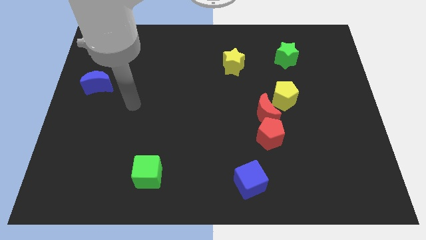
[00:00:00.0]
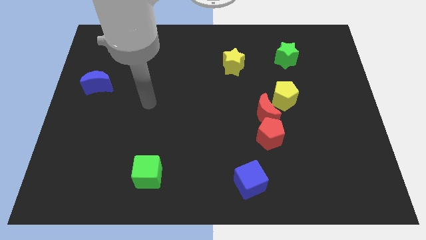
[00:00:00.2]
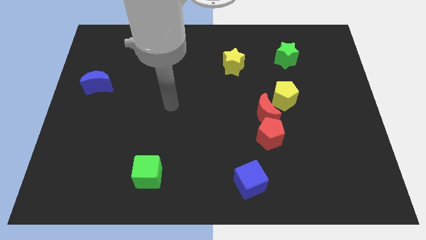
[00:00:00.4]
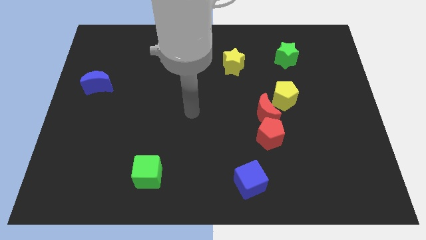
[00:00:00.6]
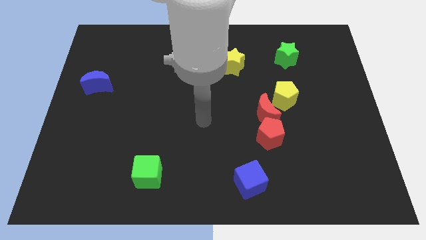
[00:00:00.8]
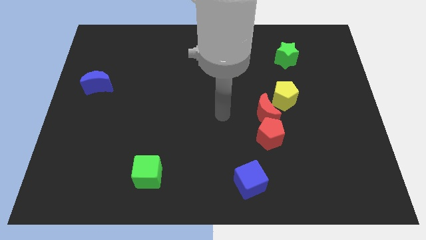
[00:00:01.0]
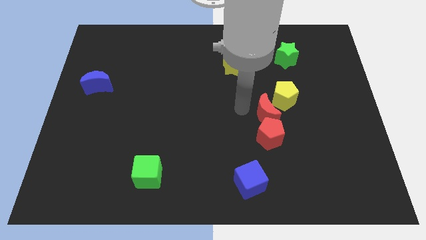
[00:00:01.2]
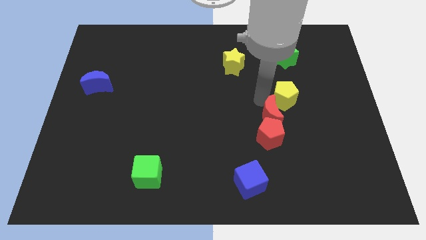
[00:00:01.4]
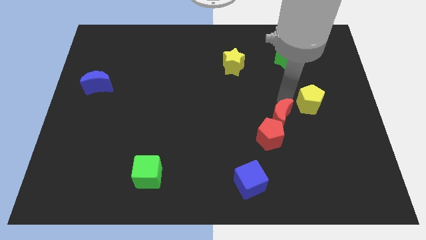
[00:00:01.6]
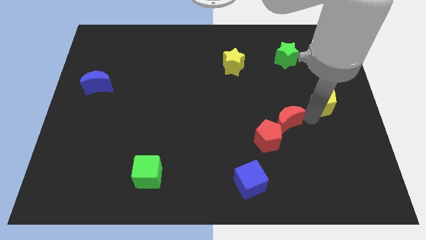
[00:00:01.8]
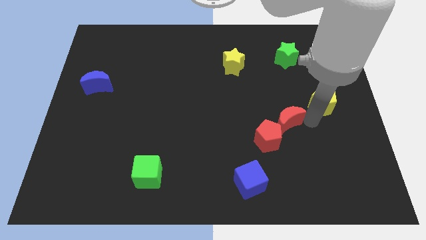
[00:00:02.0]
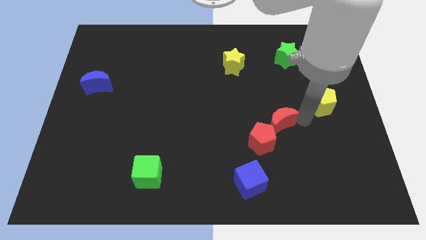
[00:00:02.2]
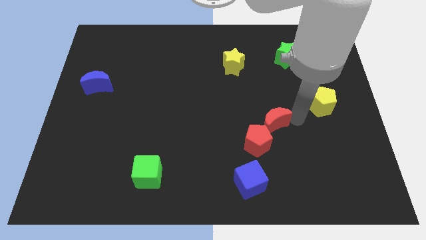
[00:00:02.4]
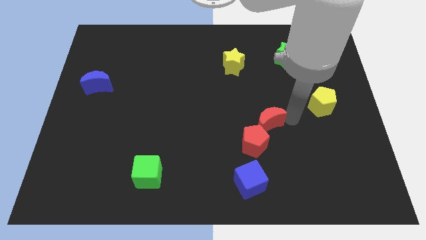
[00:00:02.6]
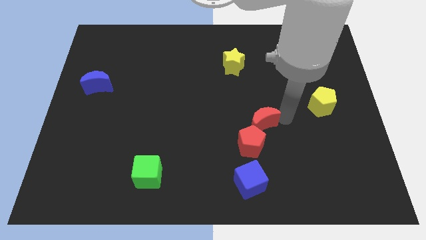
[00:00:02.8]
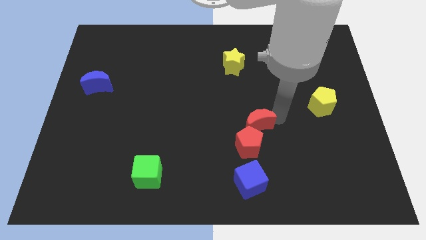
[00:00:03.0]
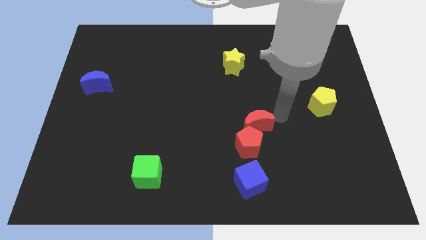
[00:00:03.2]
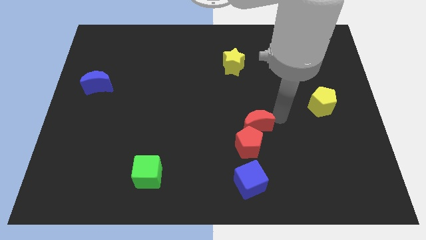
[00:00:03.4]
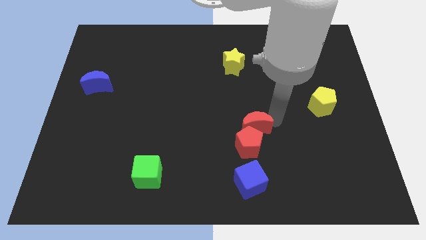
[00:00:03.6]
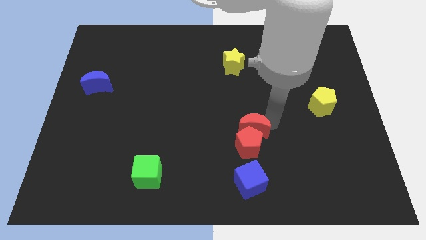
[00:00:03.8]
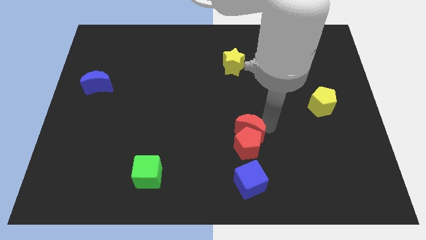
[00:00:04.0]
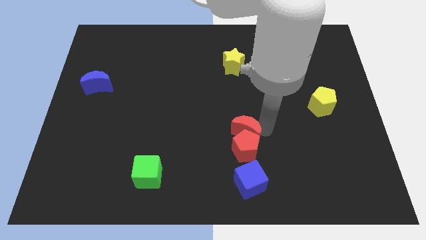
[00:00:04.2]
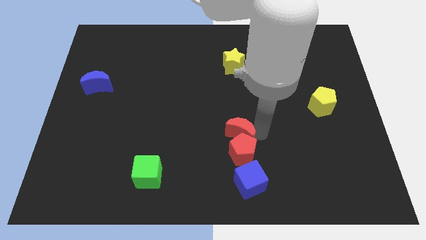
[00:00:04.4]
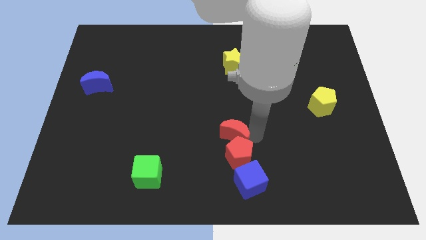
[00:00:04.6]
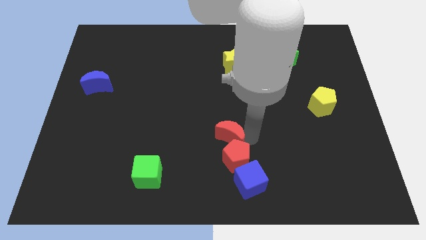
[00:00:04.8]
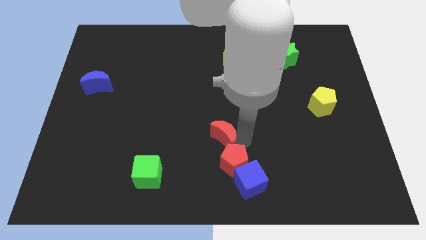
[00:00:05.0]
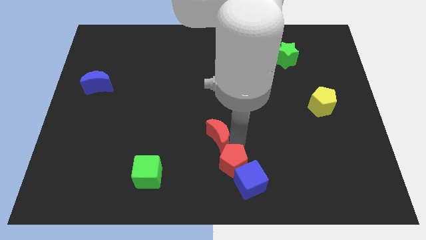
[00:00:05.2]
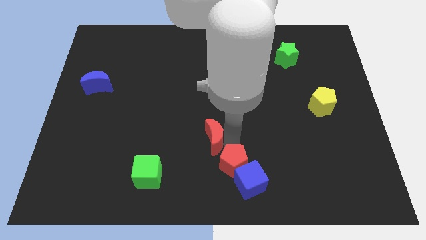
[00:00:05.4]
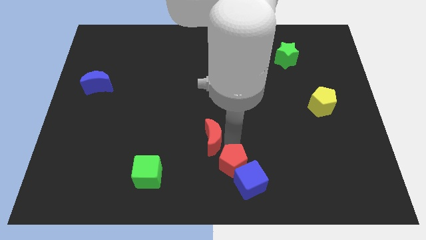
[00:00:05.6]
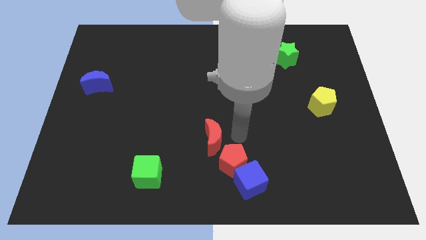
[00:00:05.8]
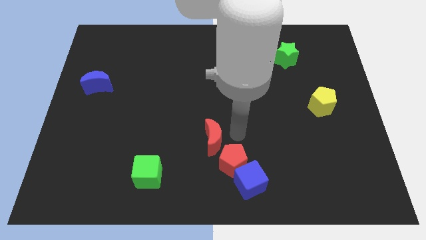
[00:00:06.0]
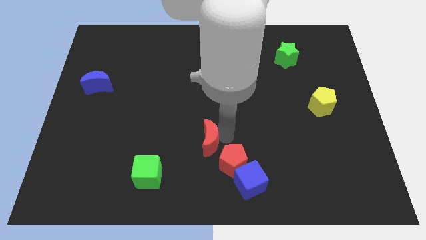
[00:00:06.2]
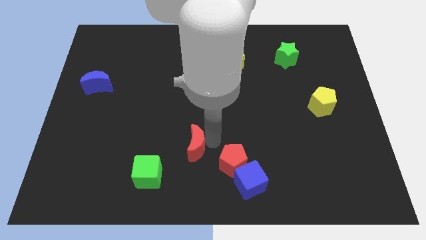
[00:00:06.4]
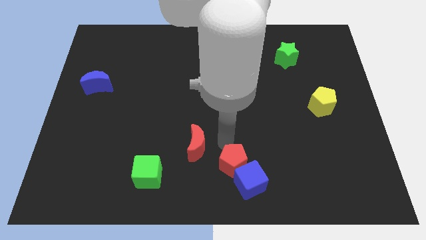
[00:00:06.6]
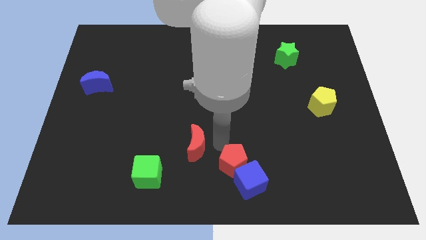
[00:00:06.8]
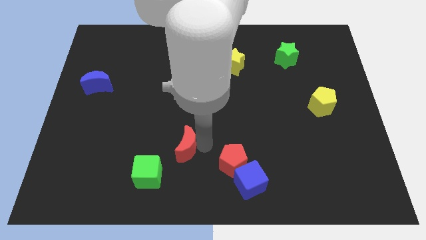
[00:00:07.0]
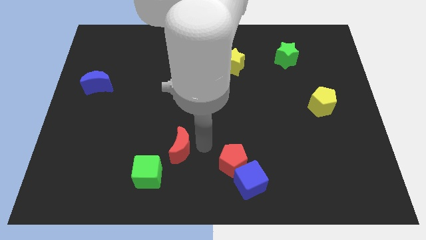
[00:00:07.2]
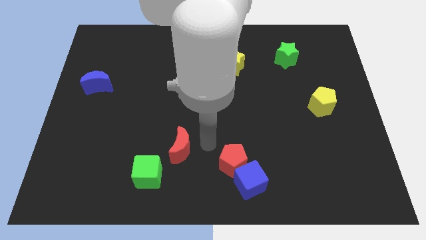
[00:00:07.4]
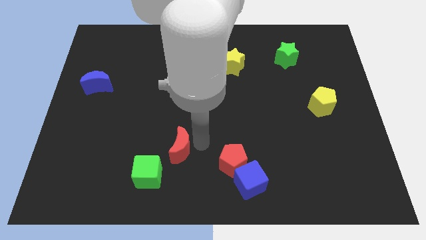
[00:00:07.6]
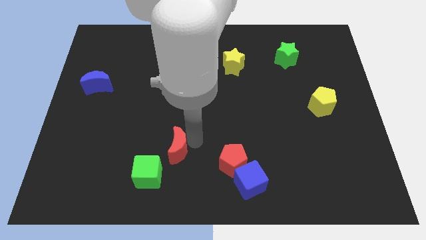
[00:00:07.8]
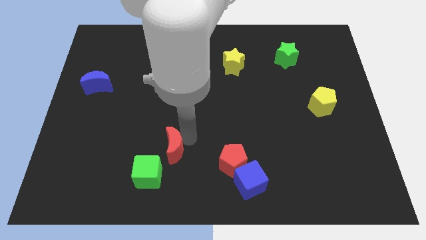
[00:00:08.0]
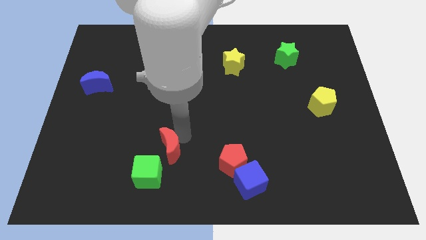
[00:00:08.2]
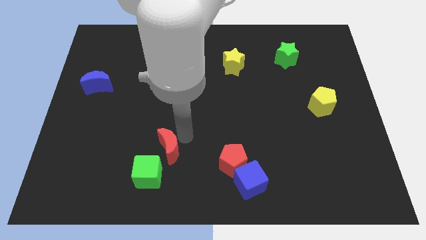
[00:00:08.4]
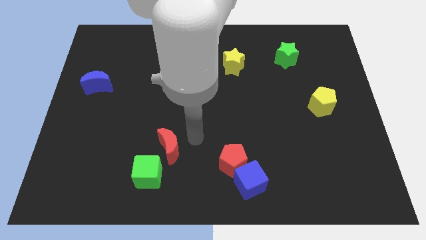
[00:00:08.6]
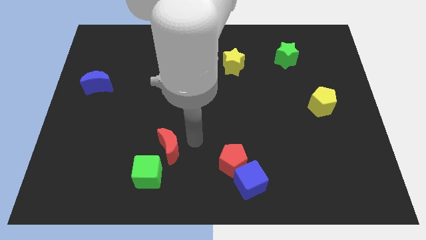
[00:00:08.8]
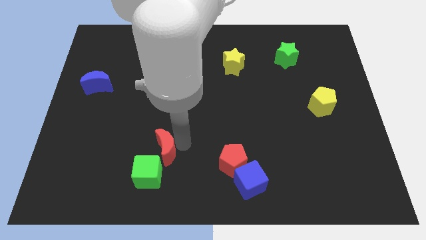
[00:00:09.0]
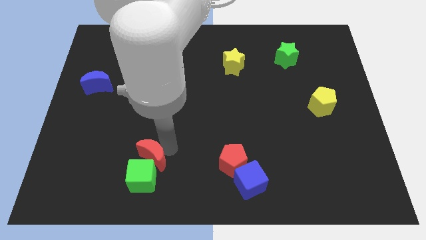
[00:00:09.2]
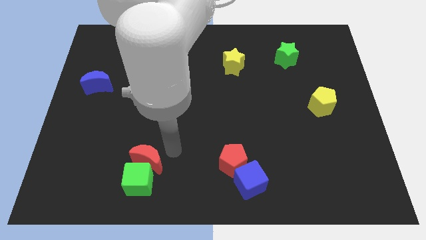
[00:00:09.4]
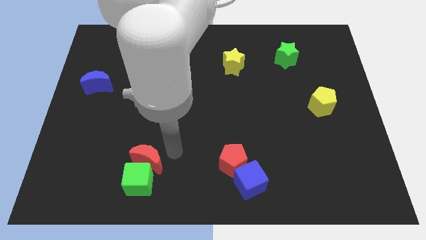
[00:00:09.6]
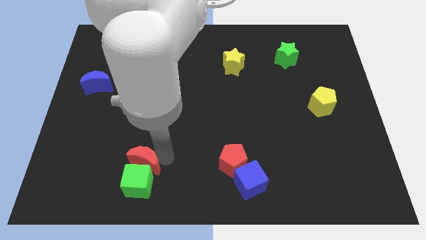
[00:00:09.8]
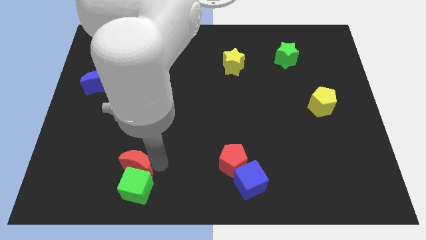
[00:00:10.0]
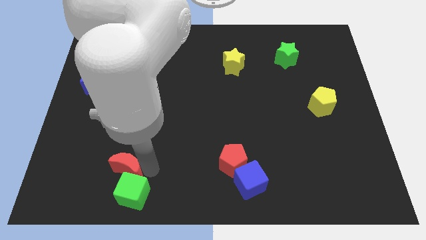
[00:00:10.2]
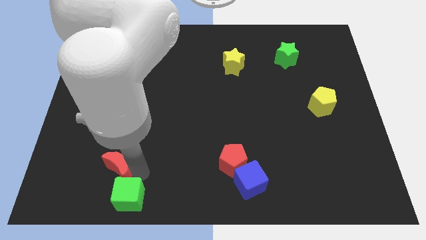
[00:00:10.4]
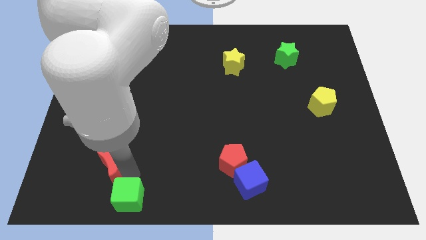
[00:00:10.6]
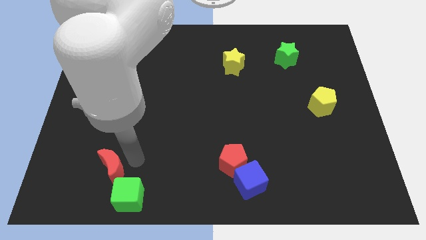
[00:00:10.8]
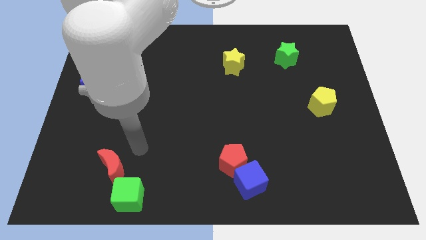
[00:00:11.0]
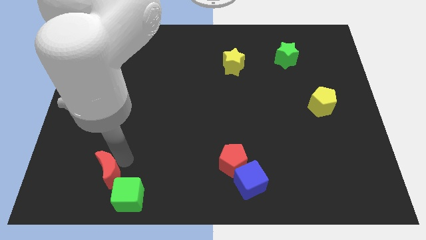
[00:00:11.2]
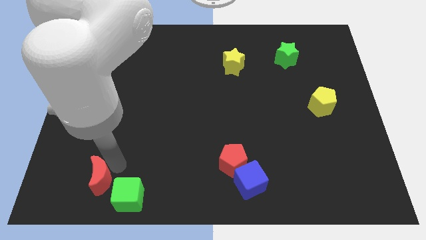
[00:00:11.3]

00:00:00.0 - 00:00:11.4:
slide the red moon to the left of the green cube

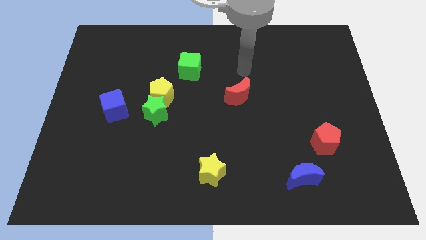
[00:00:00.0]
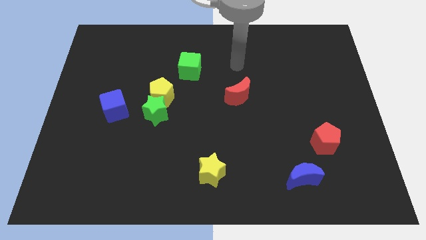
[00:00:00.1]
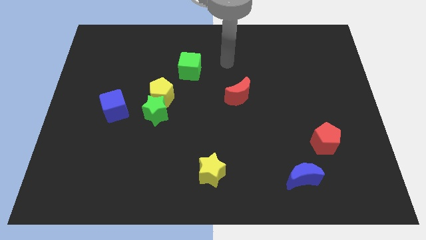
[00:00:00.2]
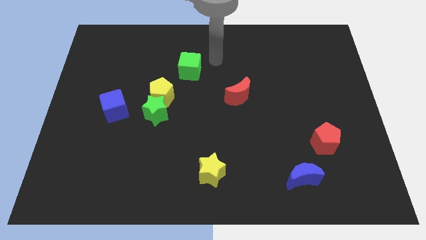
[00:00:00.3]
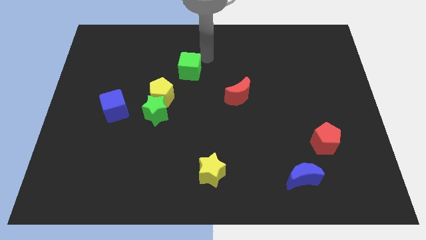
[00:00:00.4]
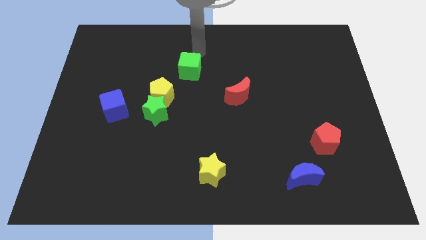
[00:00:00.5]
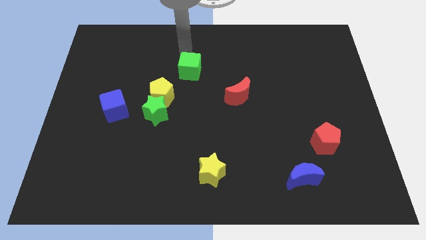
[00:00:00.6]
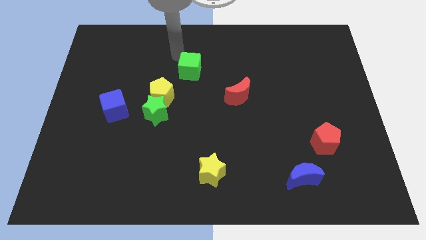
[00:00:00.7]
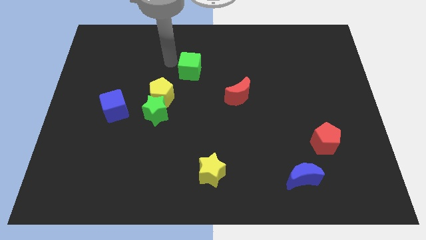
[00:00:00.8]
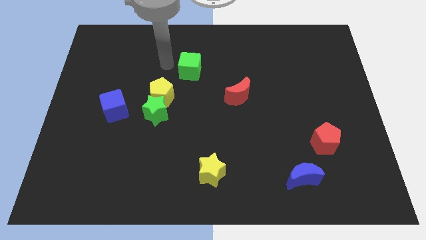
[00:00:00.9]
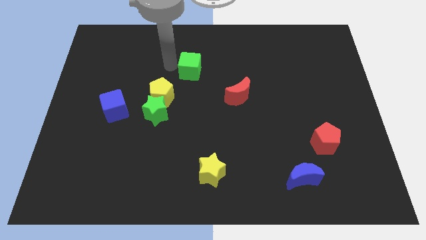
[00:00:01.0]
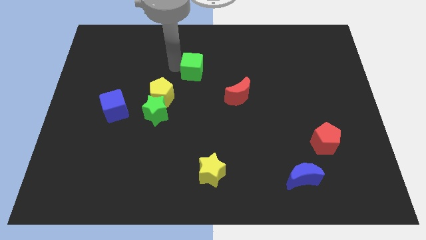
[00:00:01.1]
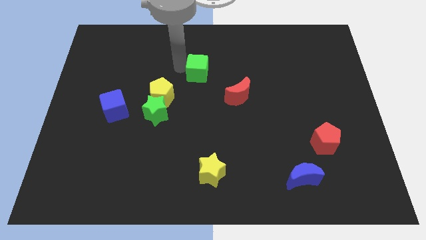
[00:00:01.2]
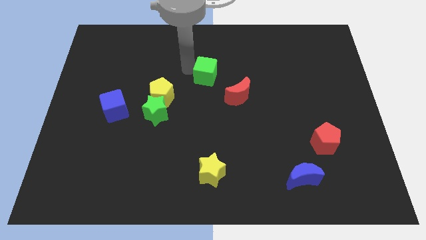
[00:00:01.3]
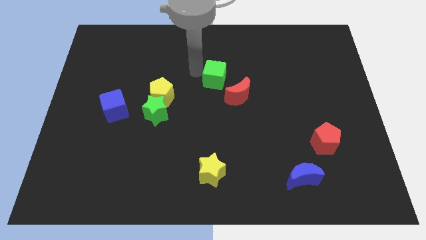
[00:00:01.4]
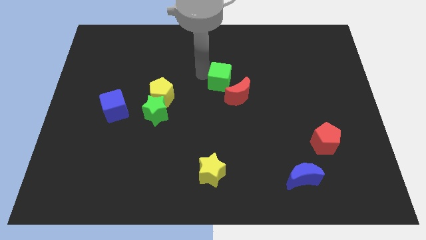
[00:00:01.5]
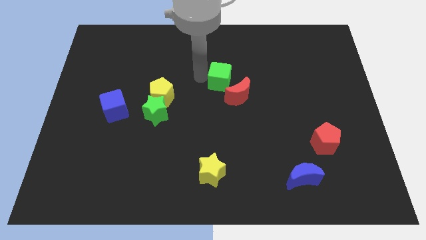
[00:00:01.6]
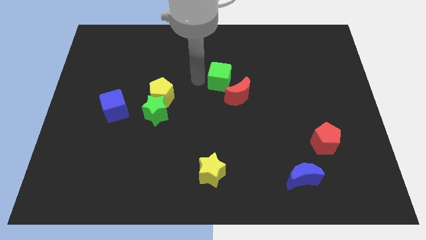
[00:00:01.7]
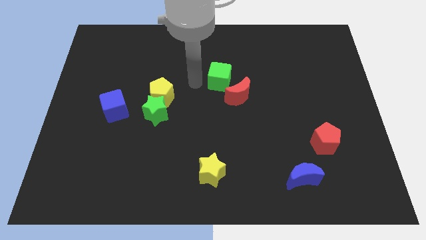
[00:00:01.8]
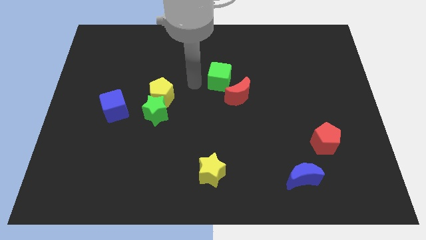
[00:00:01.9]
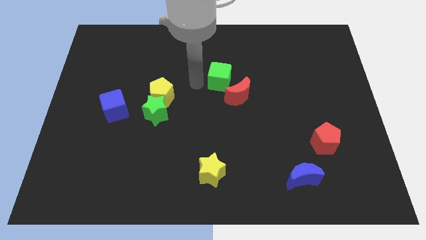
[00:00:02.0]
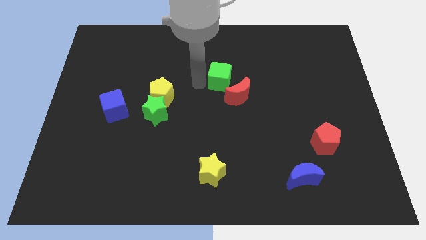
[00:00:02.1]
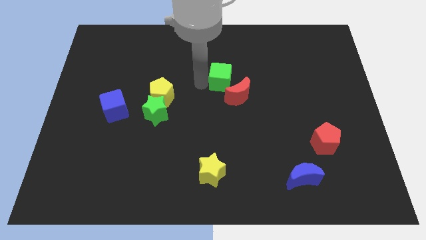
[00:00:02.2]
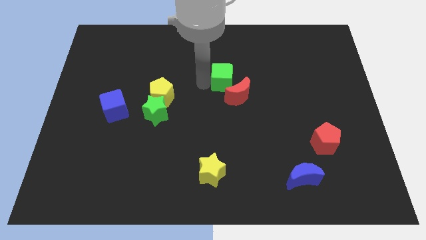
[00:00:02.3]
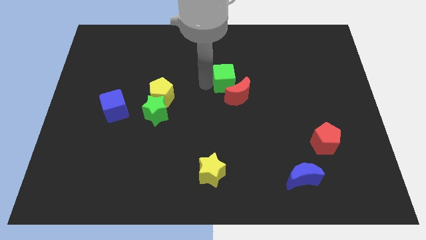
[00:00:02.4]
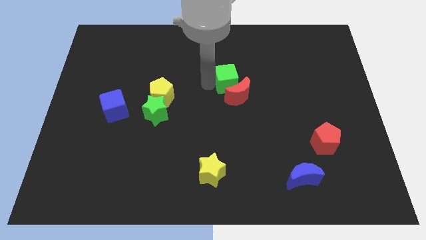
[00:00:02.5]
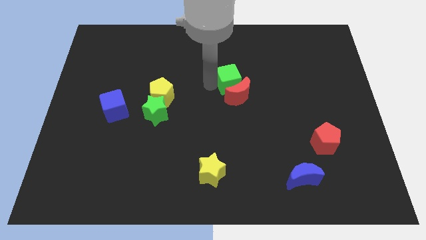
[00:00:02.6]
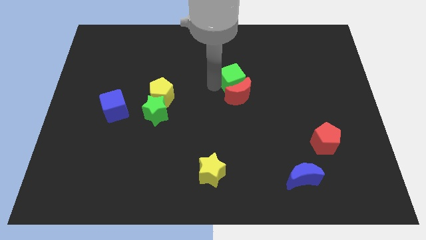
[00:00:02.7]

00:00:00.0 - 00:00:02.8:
put the green cube diagonally up and to the right of the red moon
